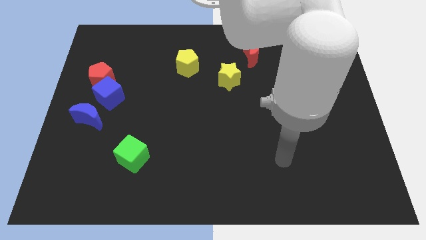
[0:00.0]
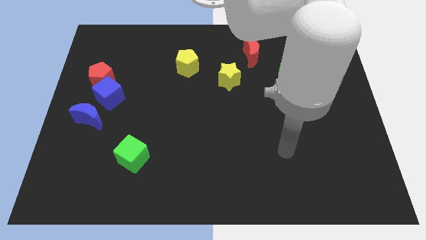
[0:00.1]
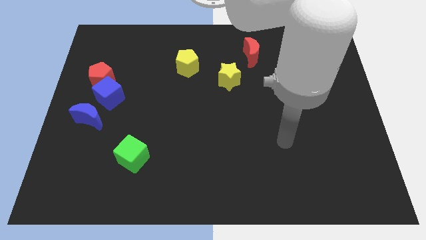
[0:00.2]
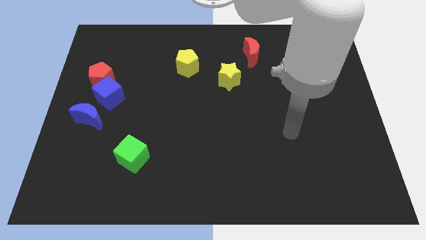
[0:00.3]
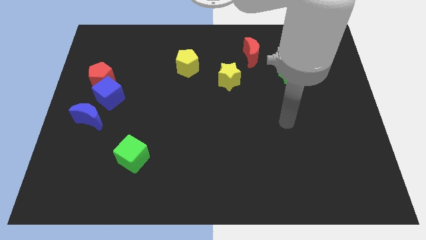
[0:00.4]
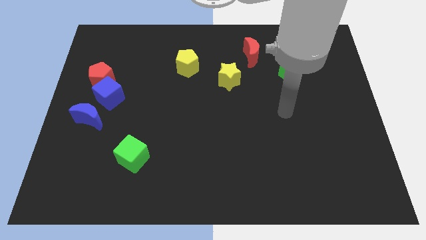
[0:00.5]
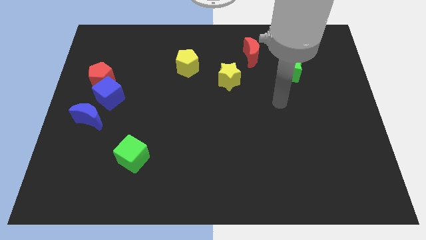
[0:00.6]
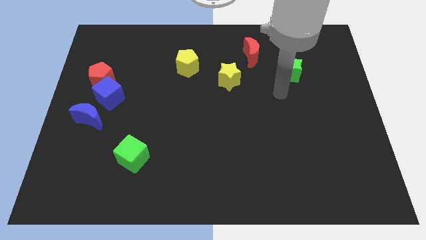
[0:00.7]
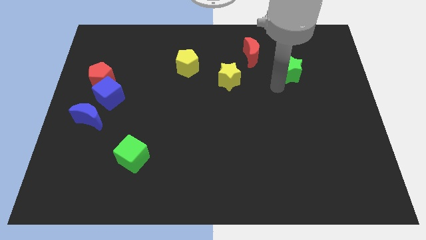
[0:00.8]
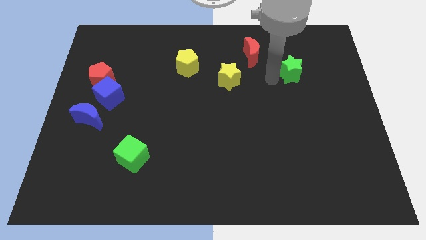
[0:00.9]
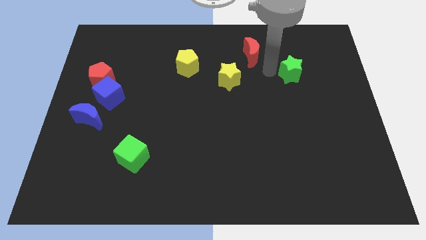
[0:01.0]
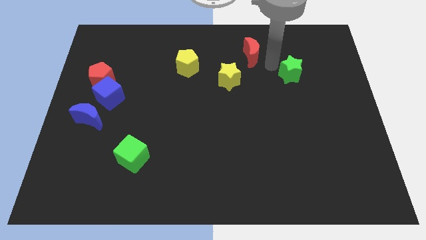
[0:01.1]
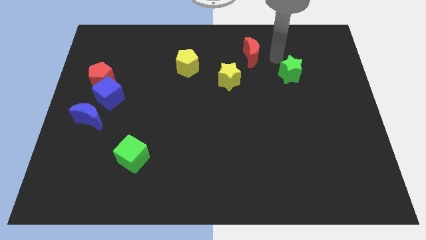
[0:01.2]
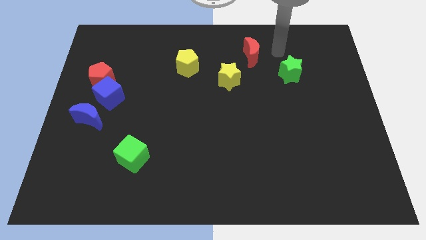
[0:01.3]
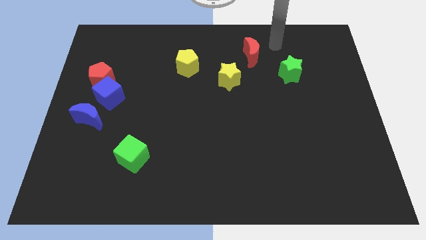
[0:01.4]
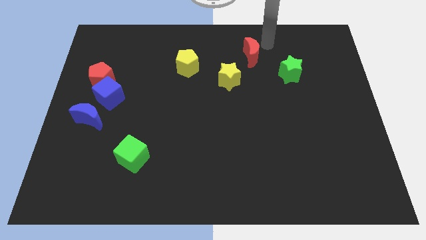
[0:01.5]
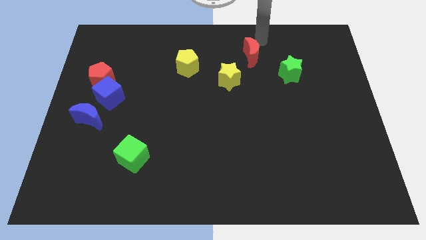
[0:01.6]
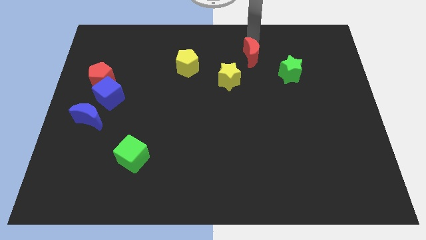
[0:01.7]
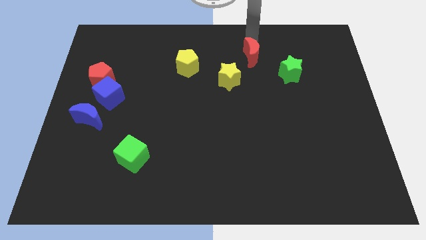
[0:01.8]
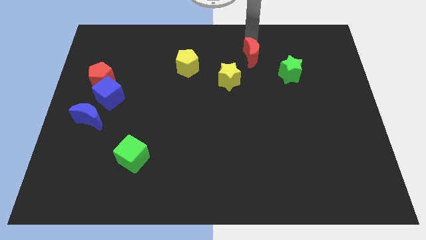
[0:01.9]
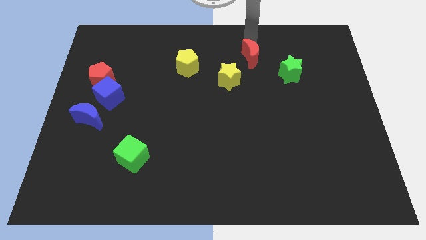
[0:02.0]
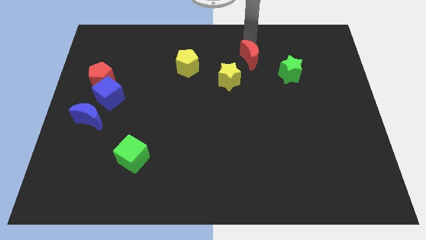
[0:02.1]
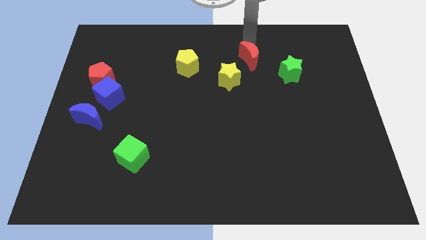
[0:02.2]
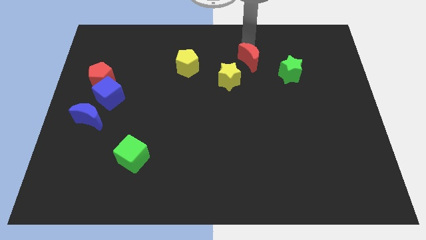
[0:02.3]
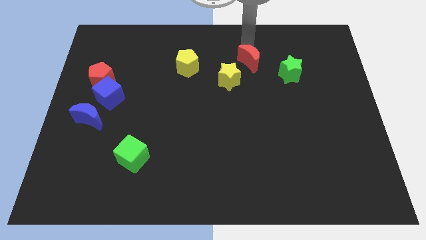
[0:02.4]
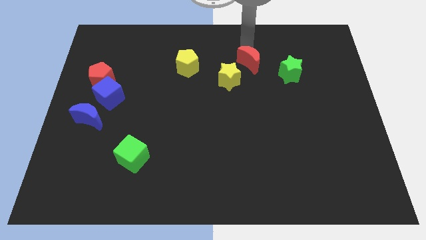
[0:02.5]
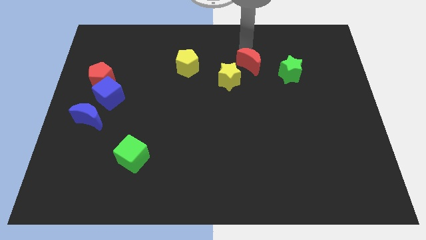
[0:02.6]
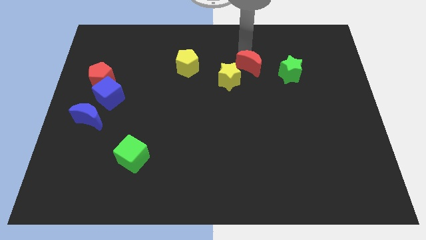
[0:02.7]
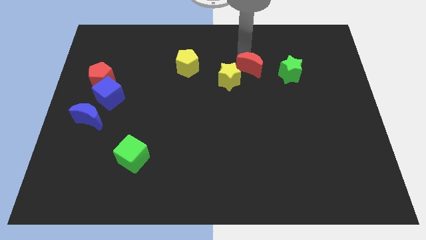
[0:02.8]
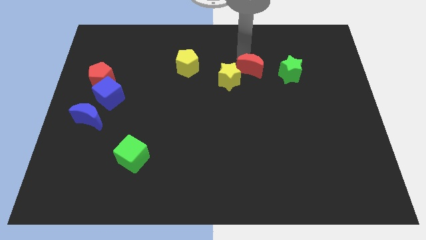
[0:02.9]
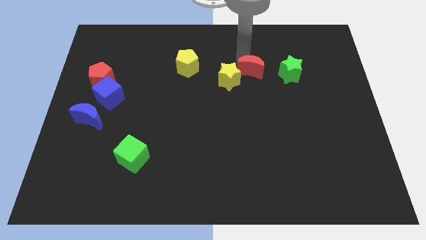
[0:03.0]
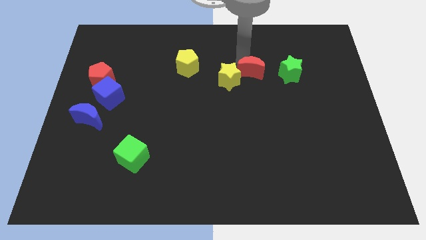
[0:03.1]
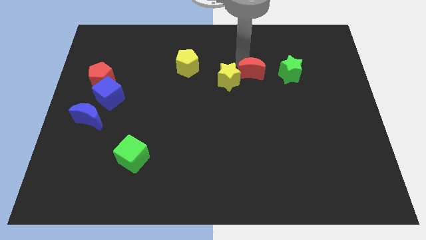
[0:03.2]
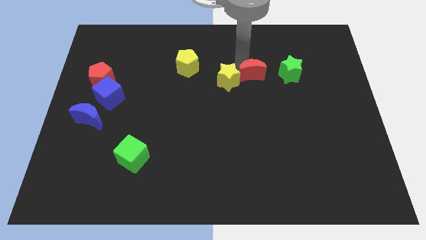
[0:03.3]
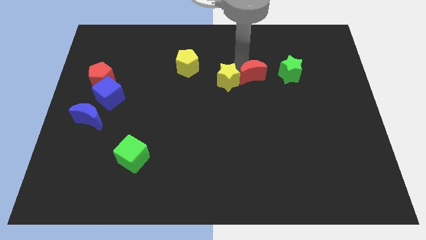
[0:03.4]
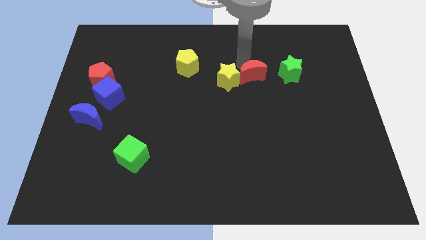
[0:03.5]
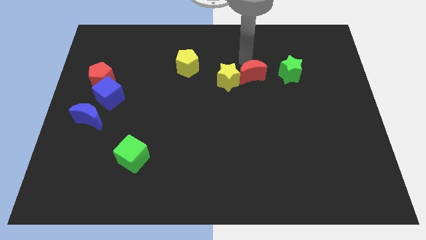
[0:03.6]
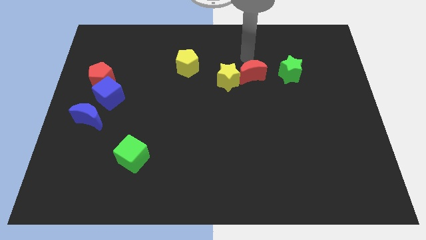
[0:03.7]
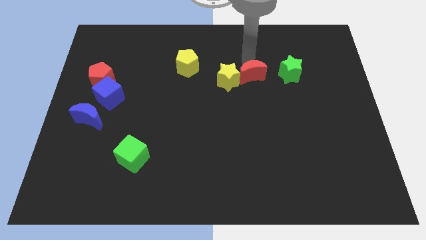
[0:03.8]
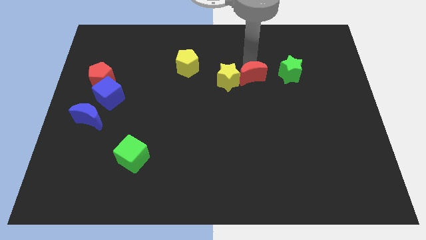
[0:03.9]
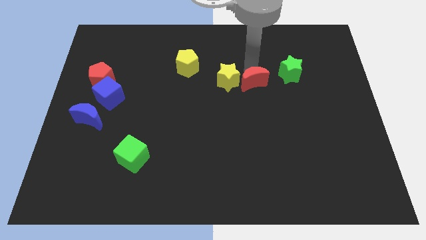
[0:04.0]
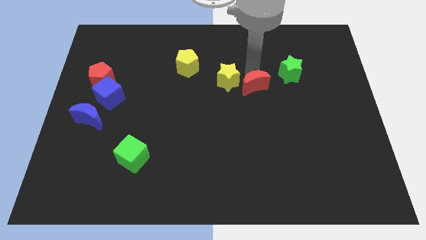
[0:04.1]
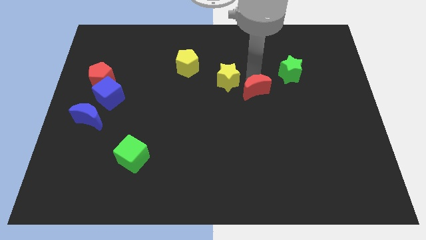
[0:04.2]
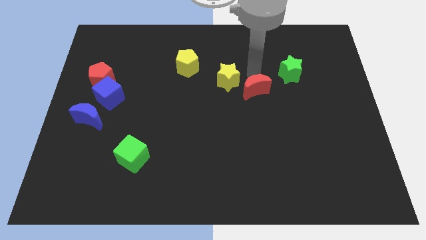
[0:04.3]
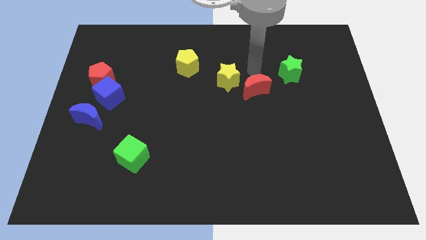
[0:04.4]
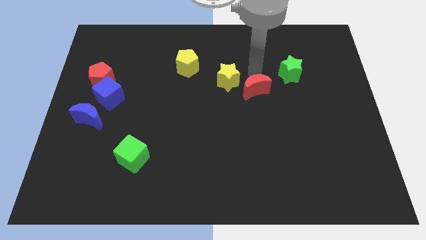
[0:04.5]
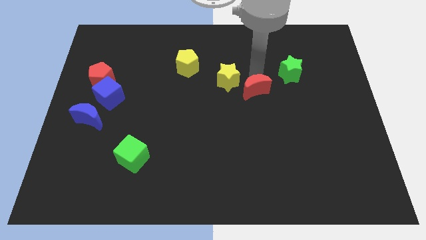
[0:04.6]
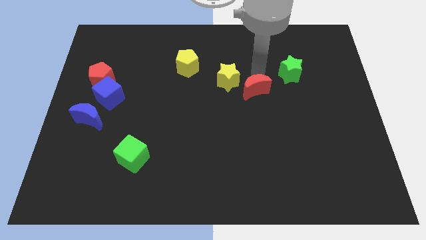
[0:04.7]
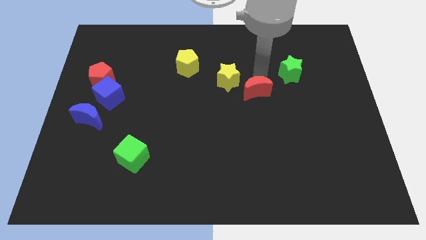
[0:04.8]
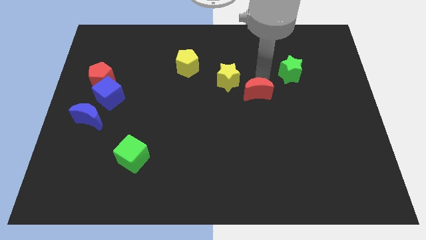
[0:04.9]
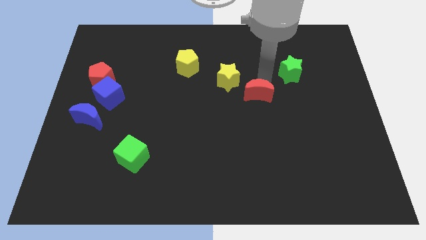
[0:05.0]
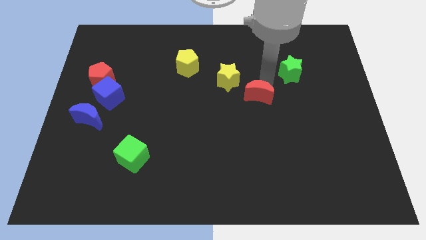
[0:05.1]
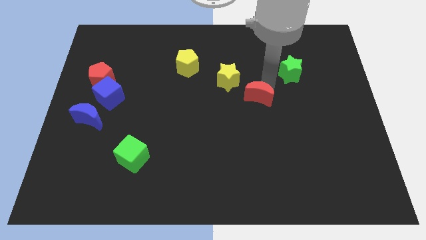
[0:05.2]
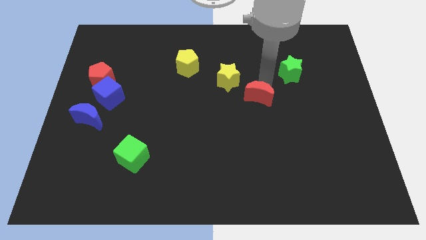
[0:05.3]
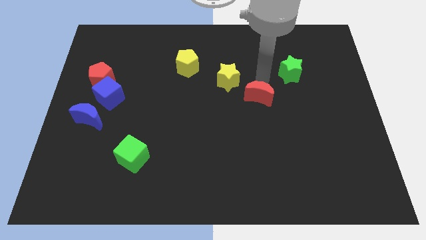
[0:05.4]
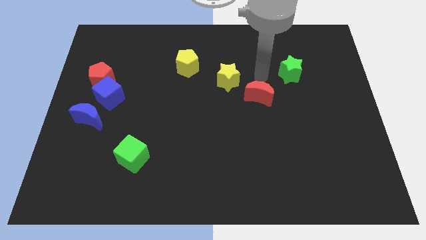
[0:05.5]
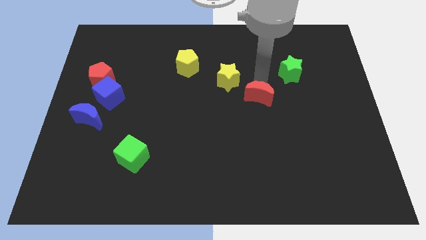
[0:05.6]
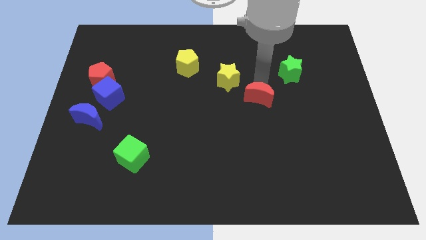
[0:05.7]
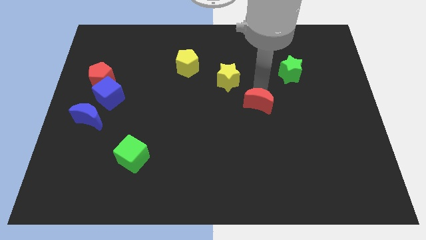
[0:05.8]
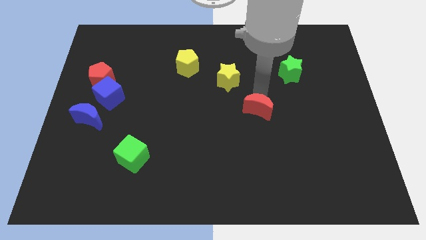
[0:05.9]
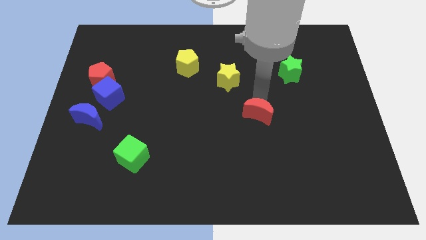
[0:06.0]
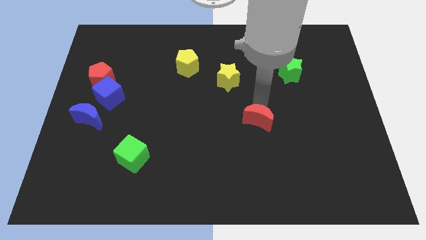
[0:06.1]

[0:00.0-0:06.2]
move the red moon down

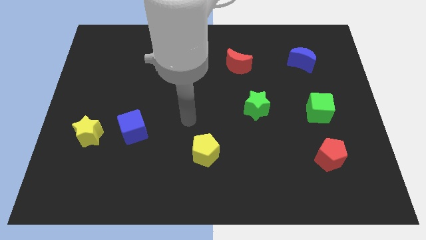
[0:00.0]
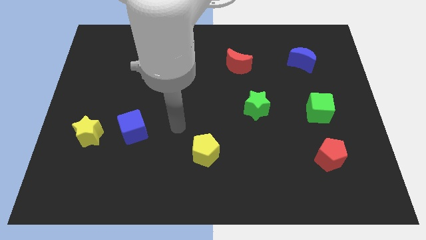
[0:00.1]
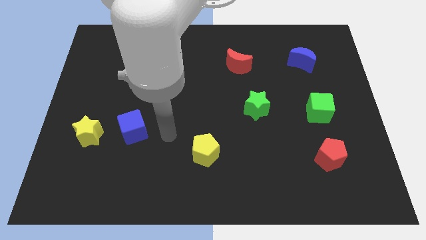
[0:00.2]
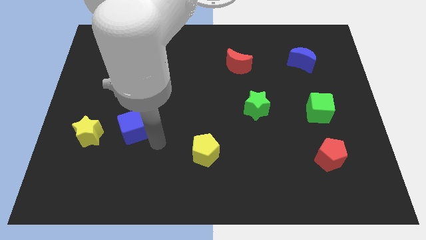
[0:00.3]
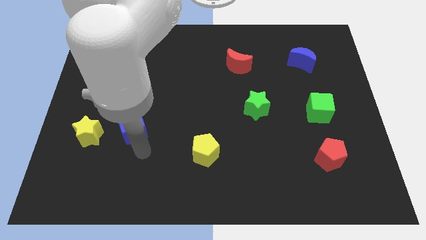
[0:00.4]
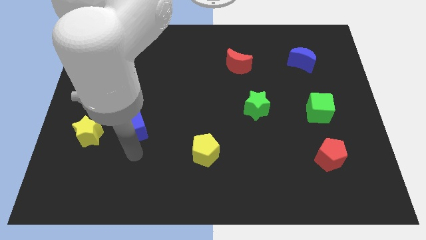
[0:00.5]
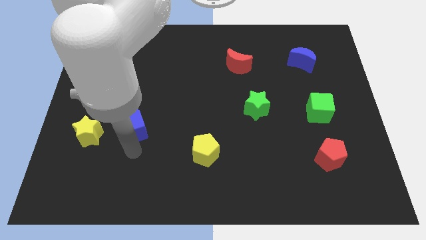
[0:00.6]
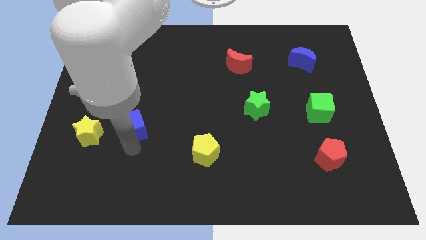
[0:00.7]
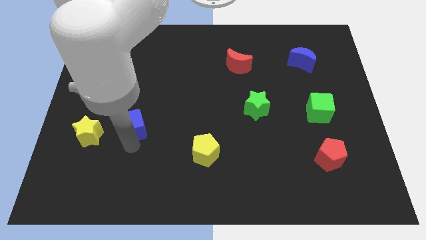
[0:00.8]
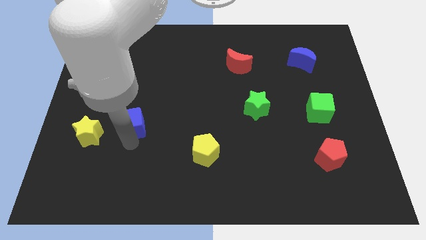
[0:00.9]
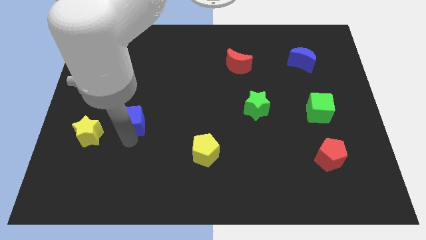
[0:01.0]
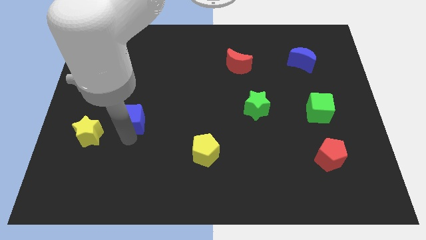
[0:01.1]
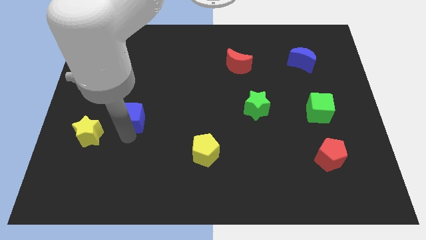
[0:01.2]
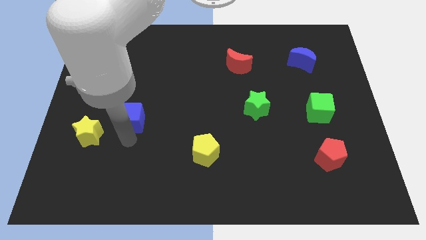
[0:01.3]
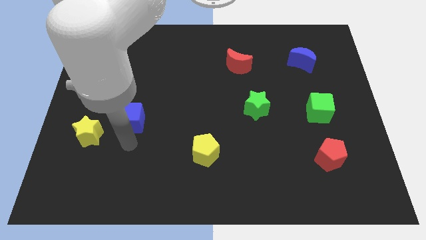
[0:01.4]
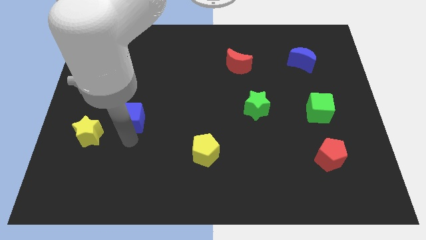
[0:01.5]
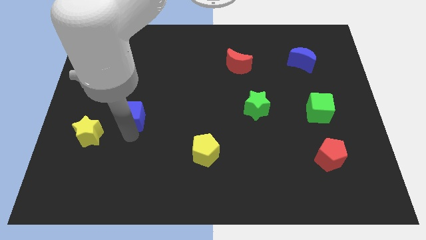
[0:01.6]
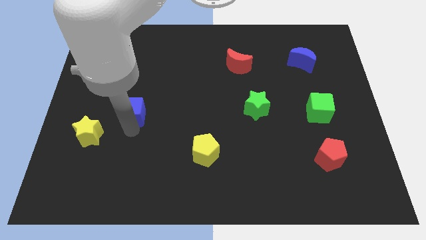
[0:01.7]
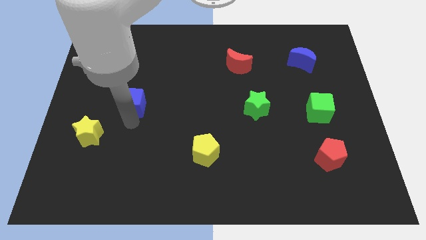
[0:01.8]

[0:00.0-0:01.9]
slide the blue cube up a little
